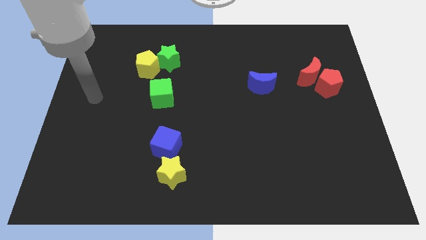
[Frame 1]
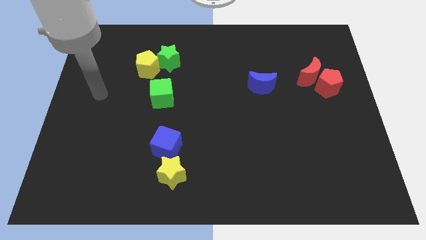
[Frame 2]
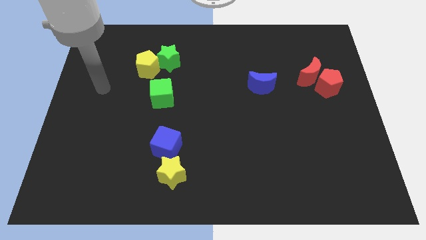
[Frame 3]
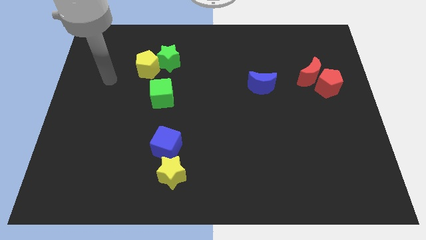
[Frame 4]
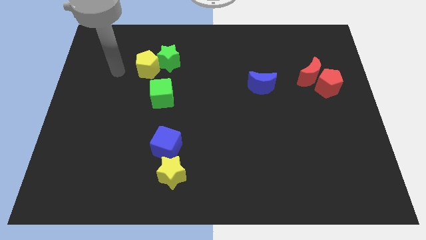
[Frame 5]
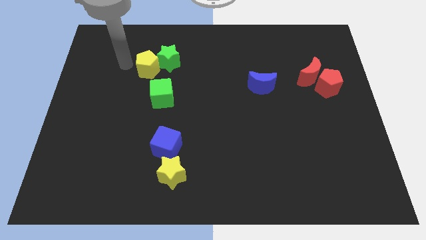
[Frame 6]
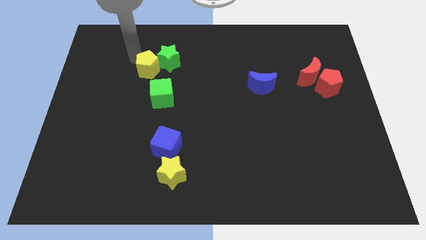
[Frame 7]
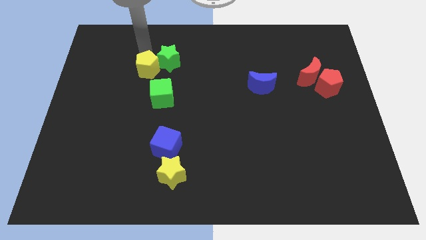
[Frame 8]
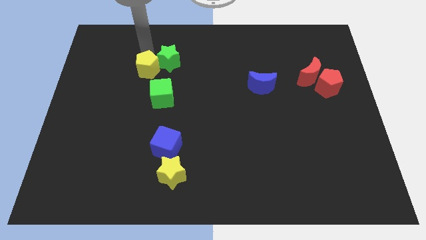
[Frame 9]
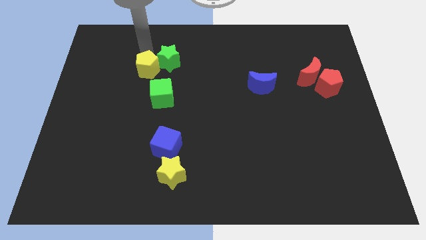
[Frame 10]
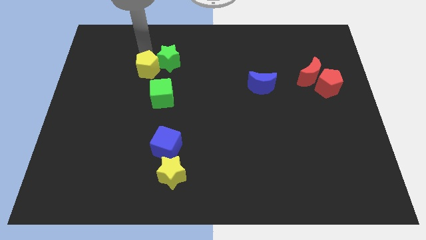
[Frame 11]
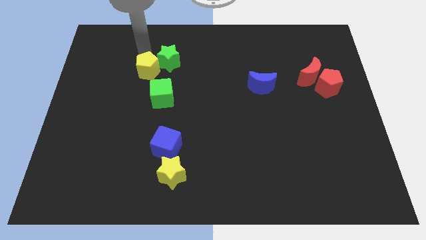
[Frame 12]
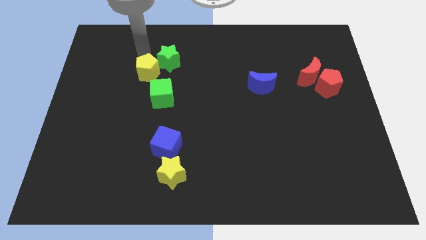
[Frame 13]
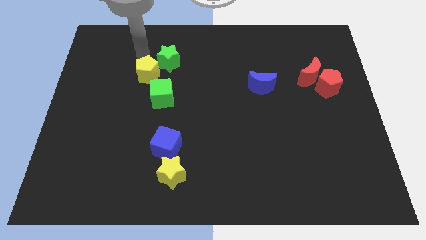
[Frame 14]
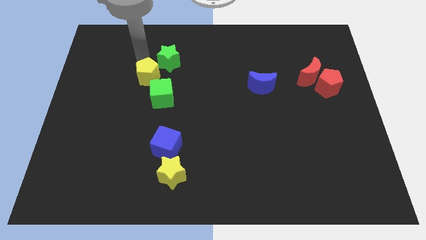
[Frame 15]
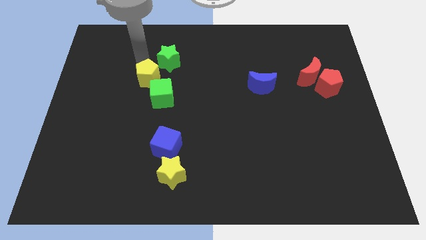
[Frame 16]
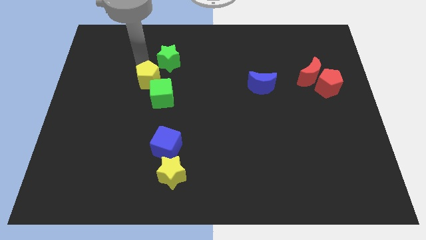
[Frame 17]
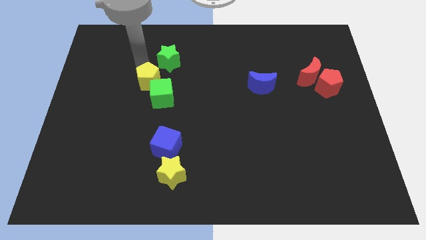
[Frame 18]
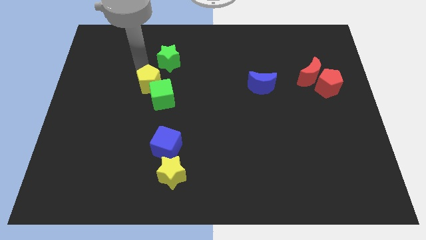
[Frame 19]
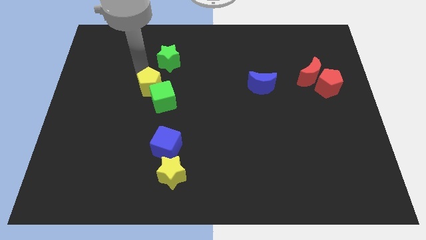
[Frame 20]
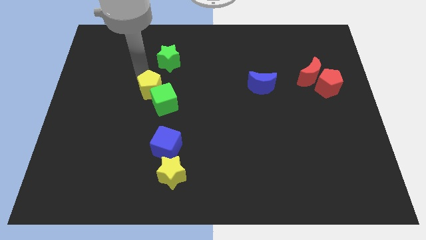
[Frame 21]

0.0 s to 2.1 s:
slide the yellow pentagon a little bit downwards

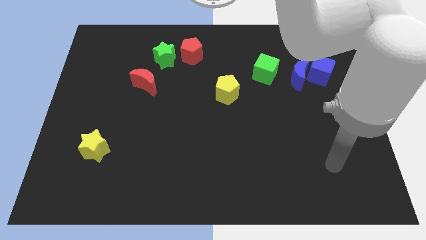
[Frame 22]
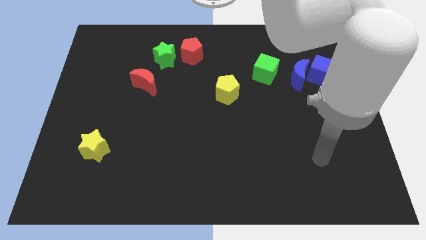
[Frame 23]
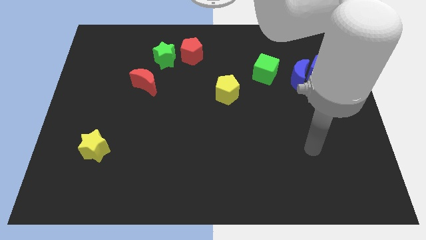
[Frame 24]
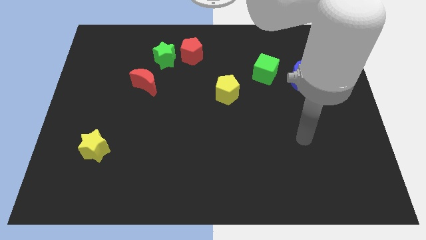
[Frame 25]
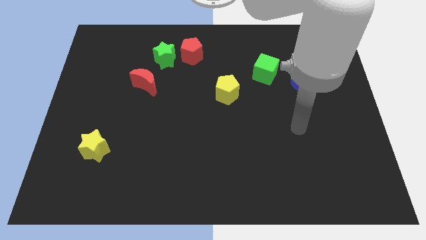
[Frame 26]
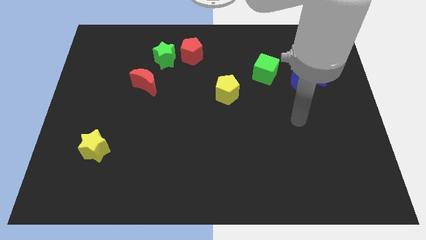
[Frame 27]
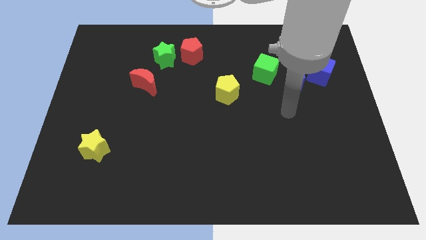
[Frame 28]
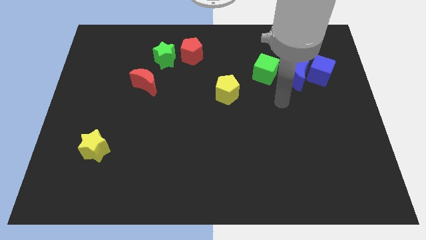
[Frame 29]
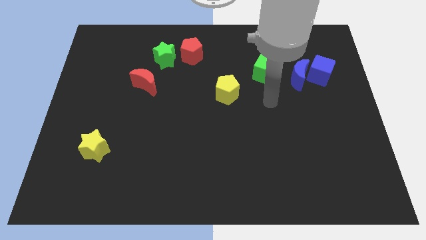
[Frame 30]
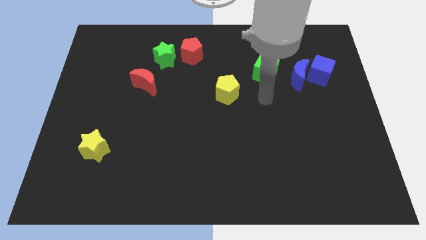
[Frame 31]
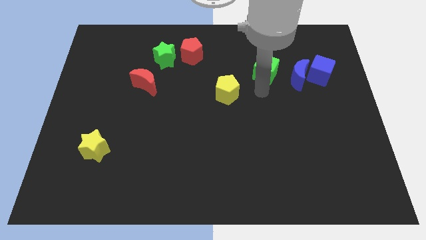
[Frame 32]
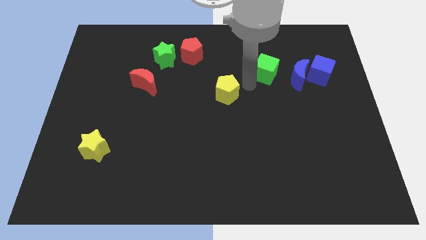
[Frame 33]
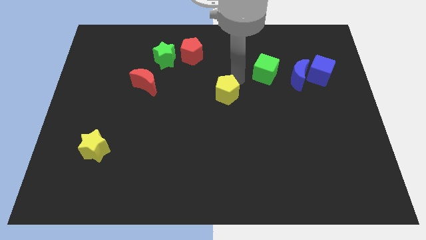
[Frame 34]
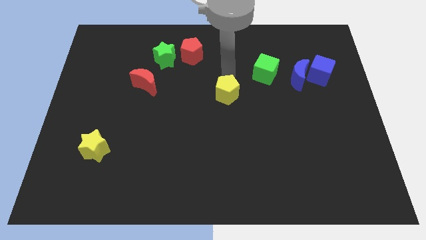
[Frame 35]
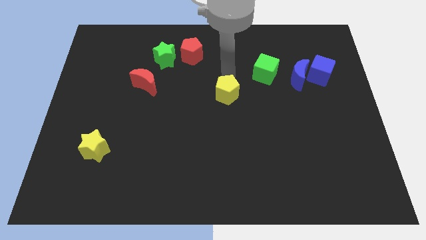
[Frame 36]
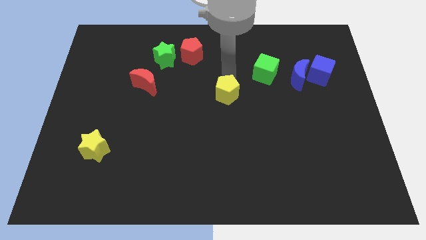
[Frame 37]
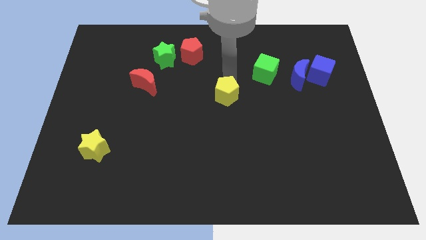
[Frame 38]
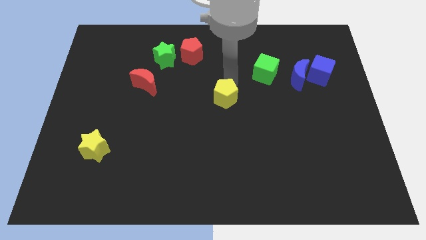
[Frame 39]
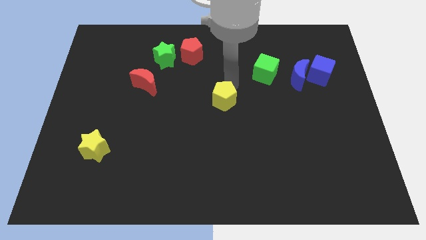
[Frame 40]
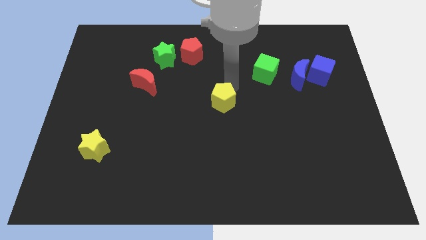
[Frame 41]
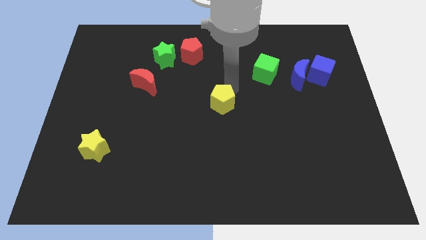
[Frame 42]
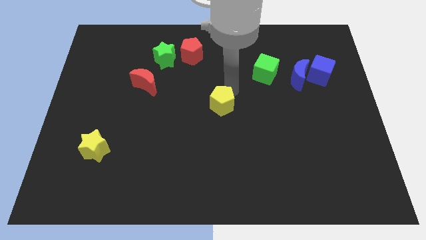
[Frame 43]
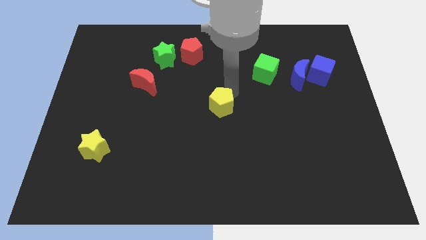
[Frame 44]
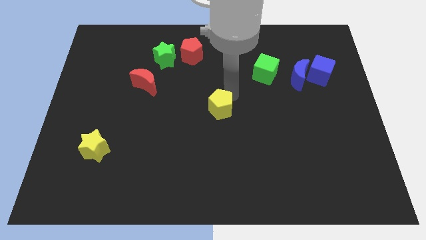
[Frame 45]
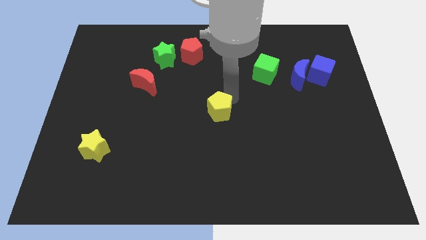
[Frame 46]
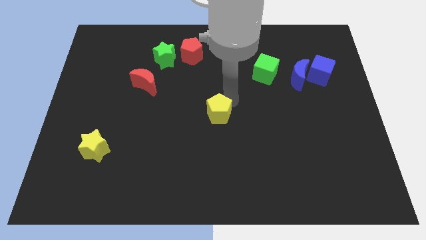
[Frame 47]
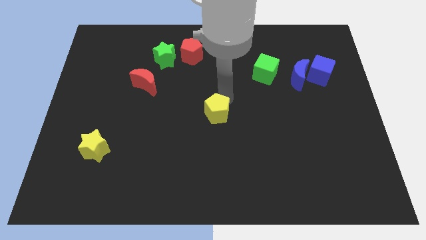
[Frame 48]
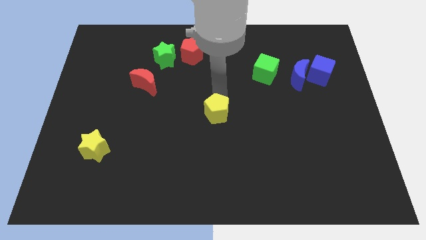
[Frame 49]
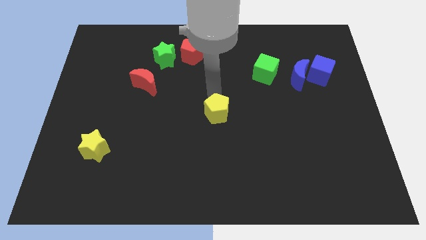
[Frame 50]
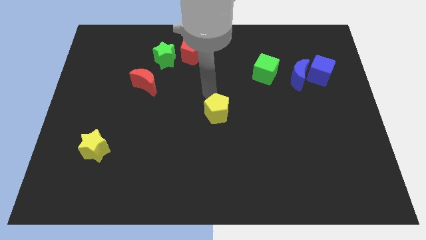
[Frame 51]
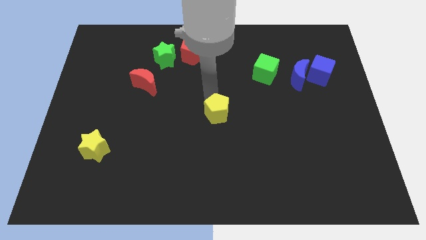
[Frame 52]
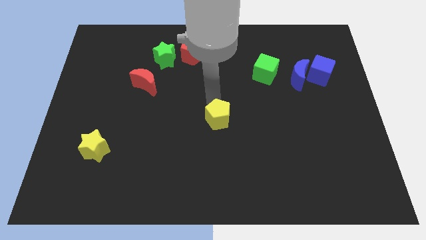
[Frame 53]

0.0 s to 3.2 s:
slightly slide the yellow pentagon downwards

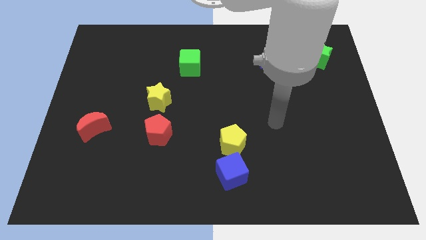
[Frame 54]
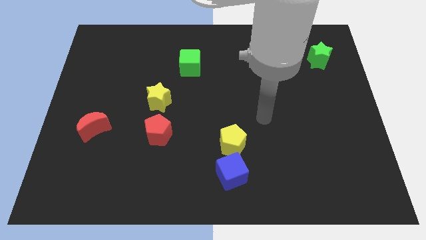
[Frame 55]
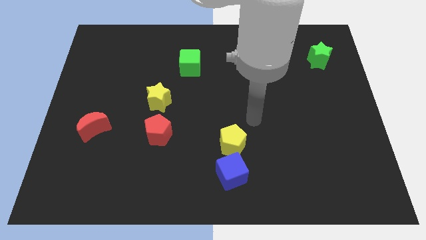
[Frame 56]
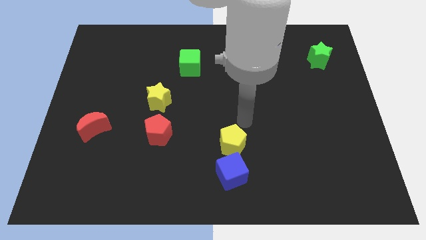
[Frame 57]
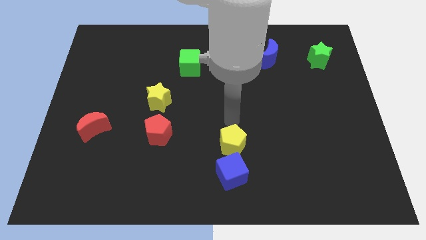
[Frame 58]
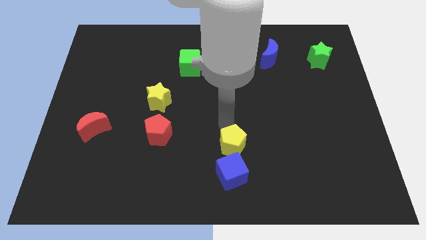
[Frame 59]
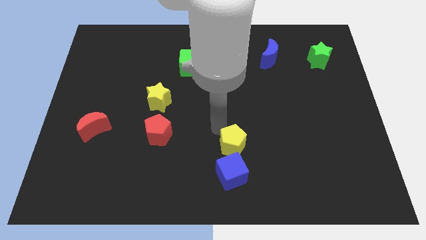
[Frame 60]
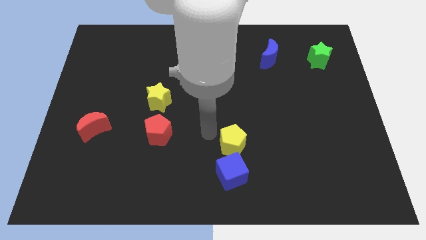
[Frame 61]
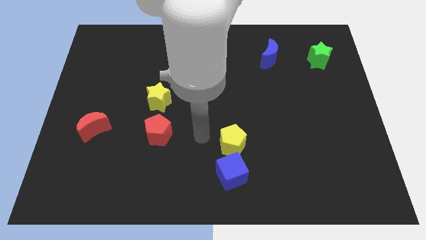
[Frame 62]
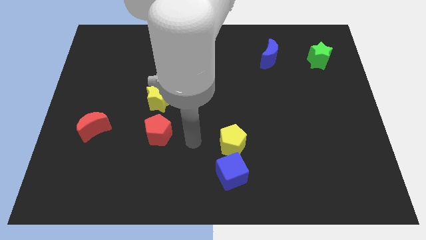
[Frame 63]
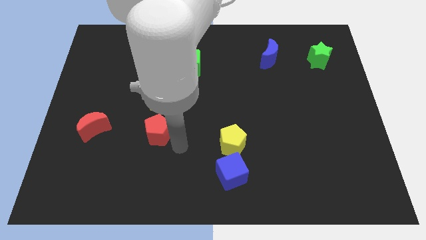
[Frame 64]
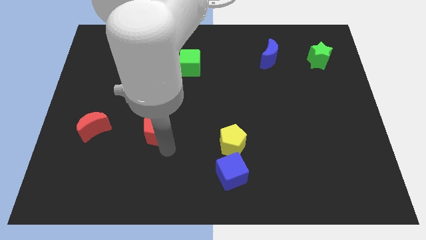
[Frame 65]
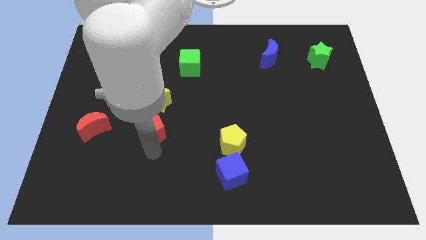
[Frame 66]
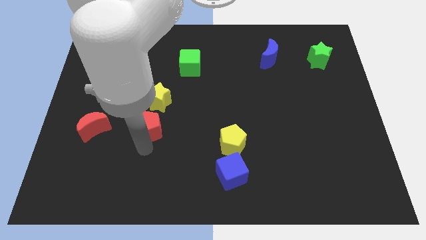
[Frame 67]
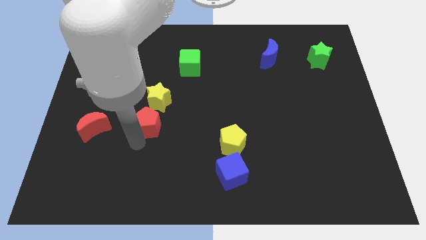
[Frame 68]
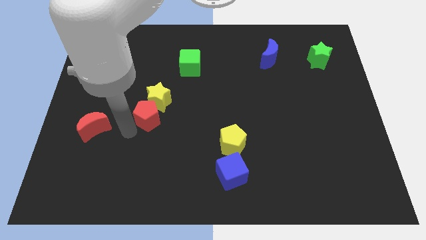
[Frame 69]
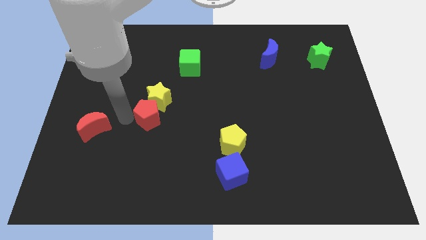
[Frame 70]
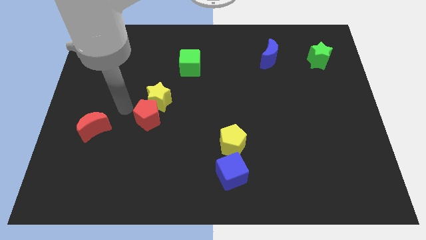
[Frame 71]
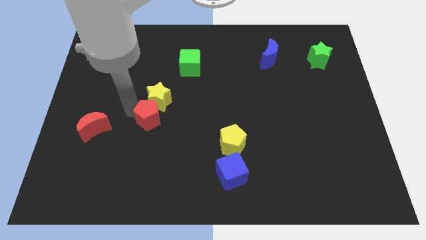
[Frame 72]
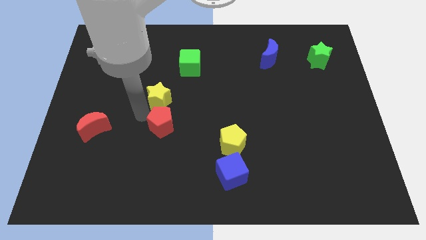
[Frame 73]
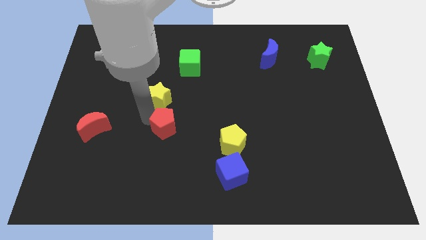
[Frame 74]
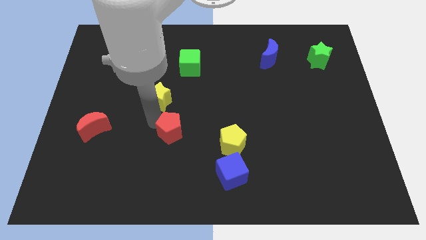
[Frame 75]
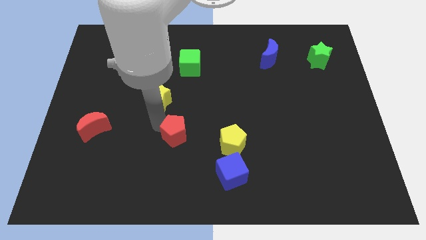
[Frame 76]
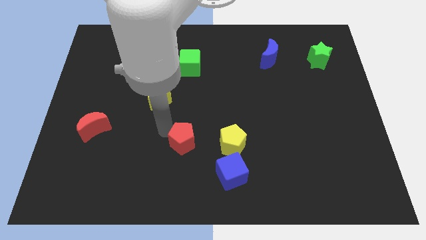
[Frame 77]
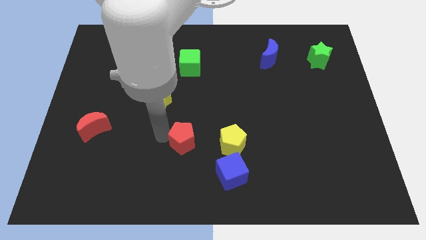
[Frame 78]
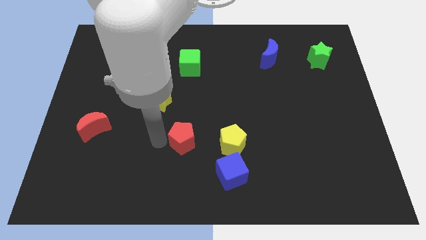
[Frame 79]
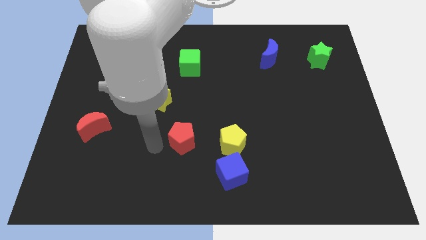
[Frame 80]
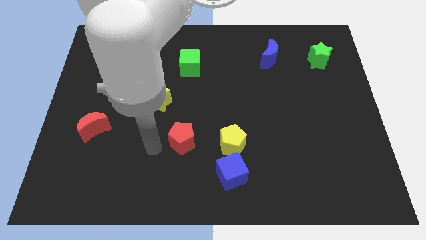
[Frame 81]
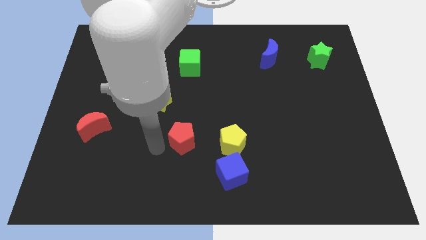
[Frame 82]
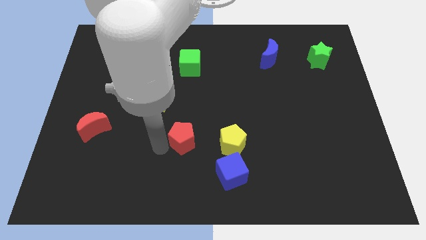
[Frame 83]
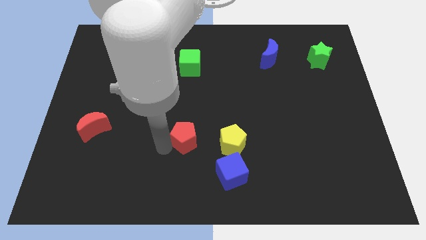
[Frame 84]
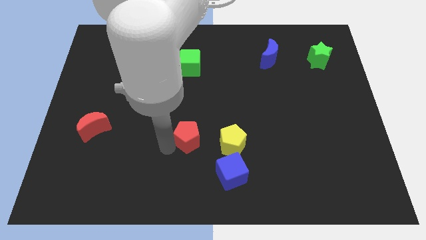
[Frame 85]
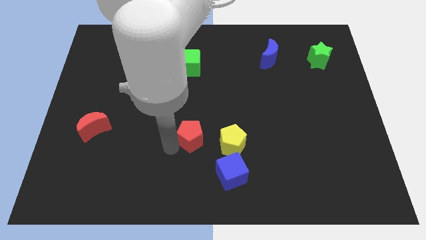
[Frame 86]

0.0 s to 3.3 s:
slightly push the red pentagon to the right
